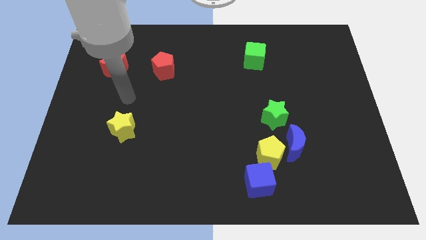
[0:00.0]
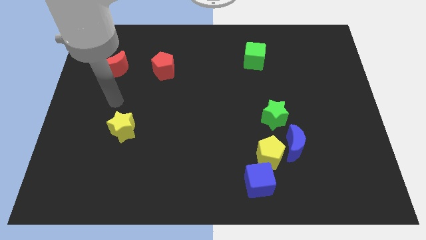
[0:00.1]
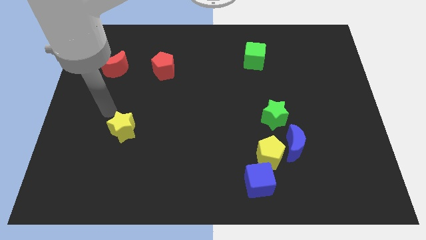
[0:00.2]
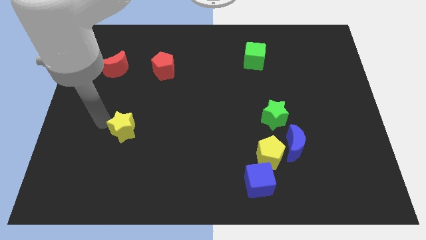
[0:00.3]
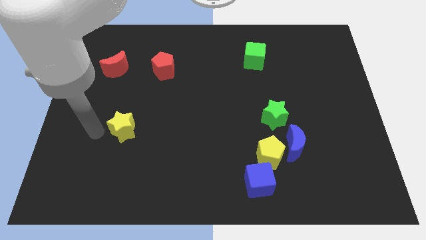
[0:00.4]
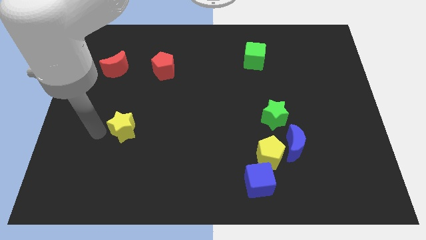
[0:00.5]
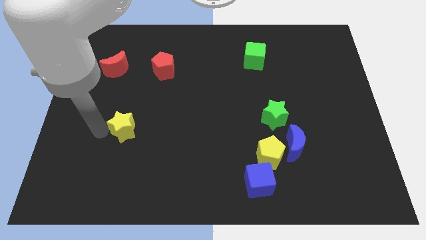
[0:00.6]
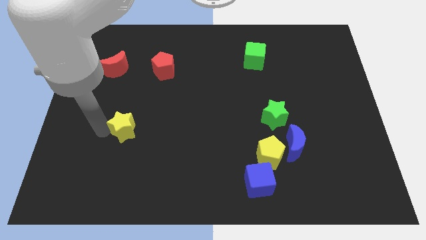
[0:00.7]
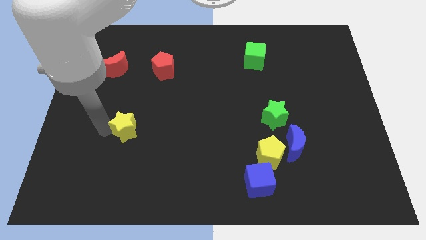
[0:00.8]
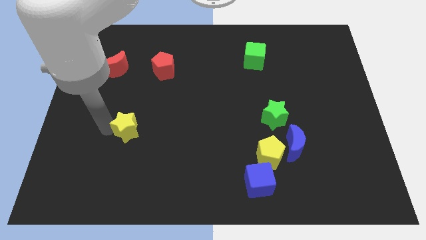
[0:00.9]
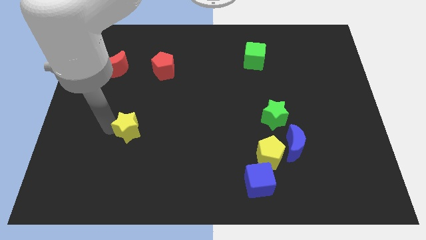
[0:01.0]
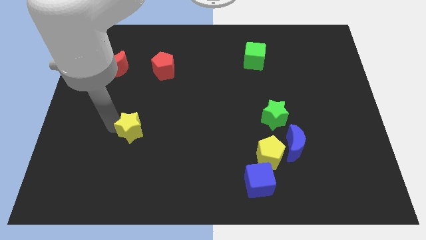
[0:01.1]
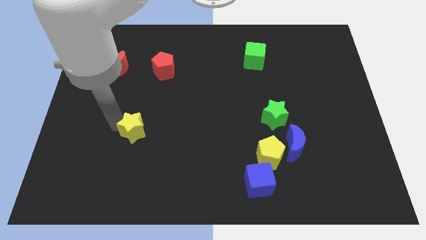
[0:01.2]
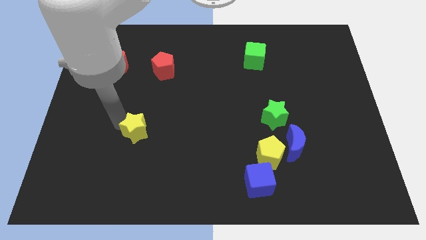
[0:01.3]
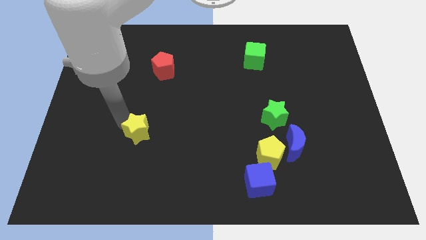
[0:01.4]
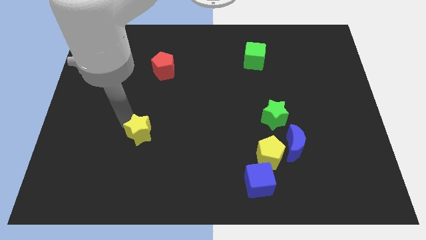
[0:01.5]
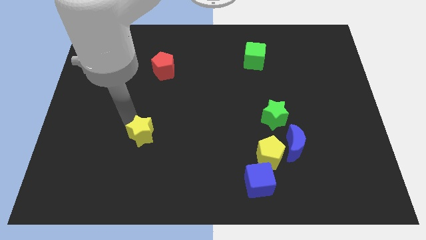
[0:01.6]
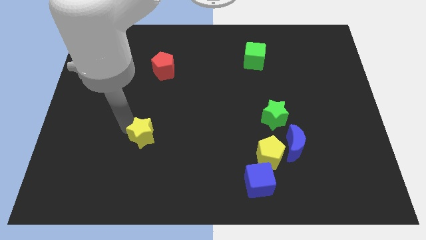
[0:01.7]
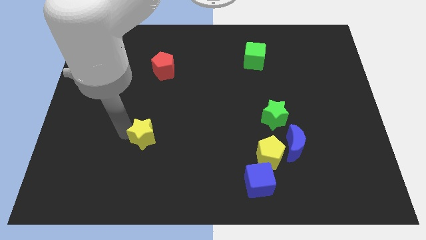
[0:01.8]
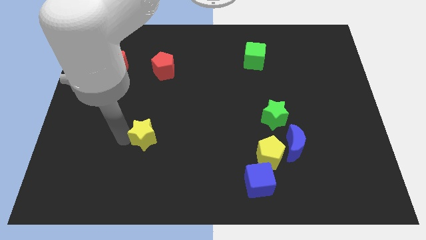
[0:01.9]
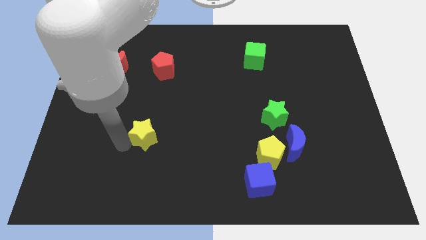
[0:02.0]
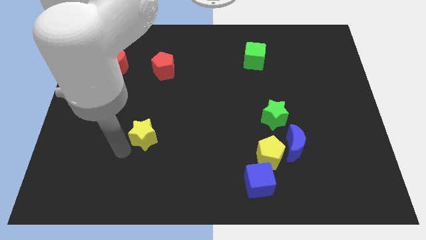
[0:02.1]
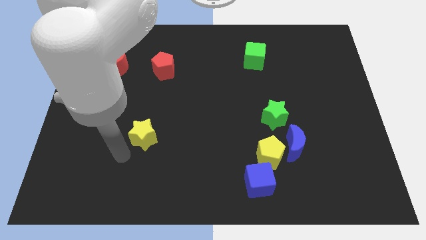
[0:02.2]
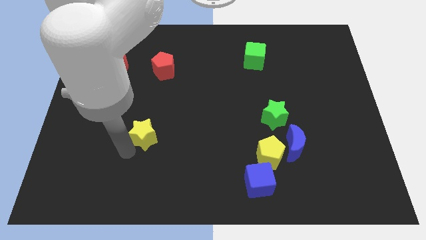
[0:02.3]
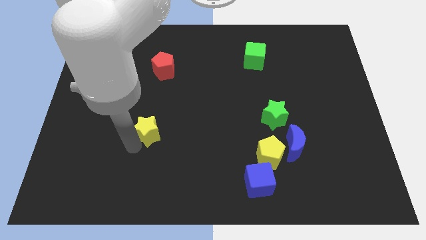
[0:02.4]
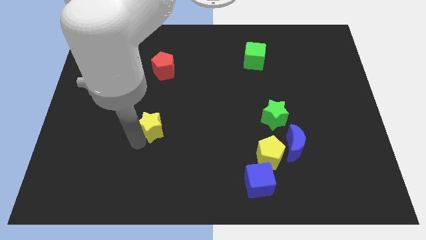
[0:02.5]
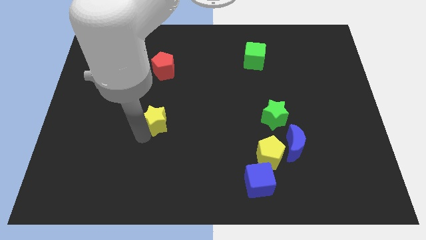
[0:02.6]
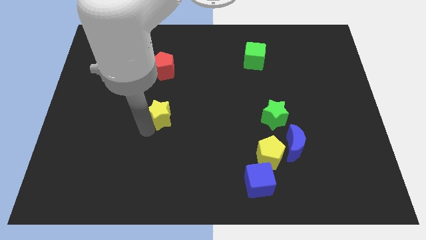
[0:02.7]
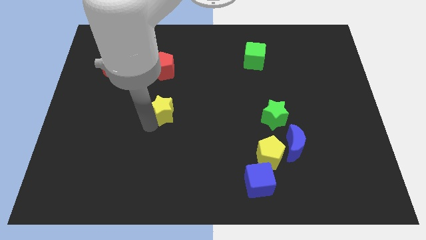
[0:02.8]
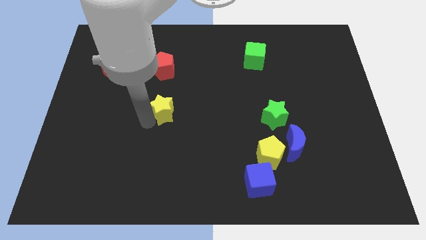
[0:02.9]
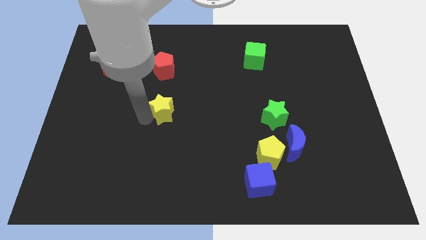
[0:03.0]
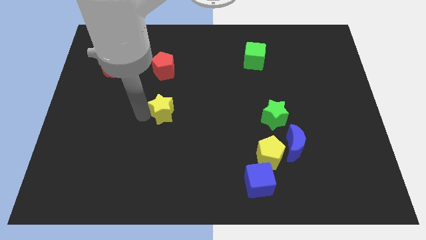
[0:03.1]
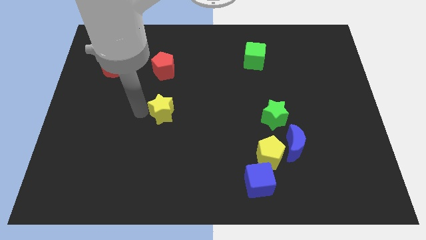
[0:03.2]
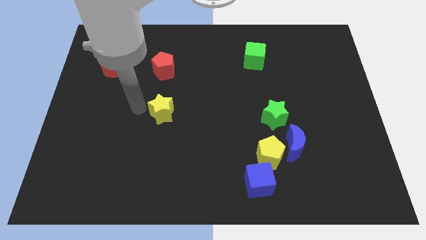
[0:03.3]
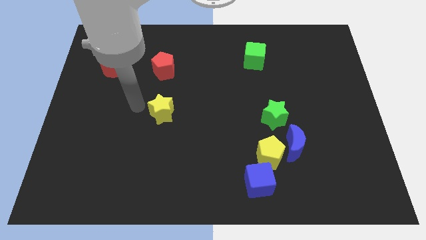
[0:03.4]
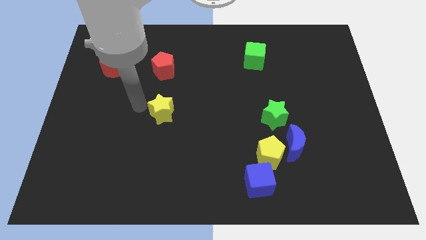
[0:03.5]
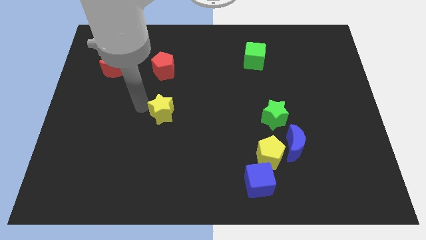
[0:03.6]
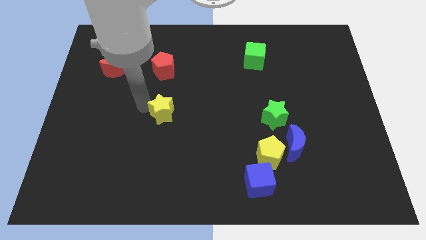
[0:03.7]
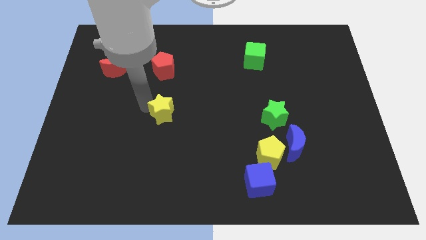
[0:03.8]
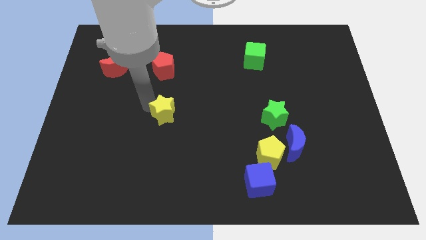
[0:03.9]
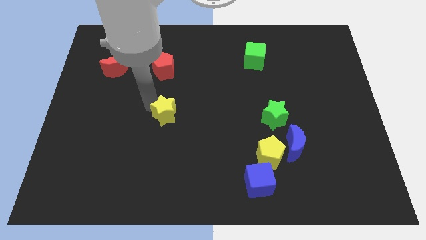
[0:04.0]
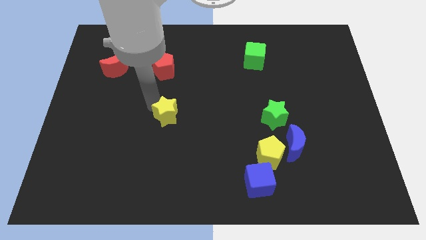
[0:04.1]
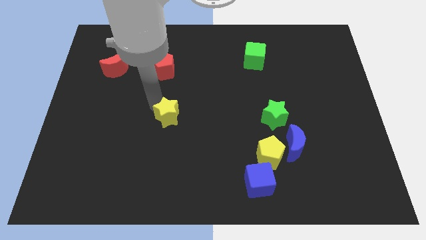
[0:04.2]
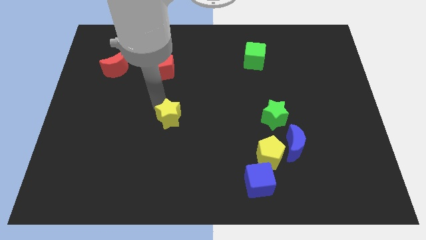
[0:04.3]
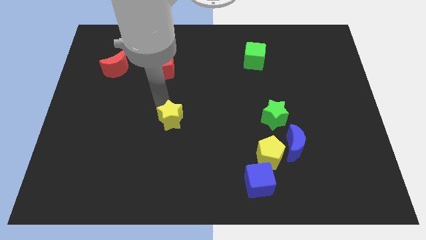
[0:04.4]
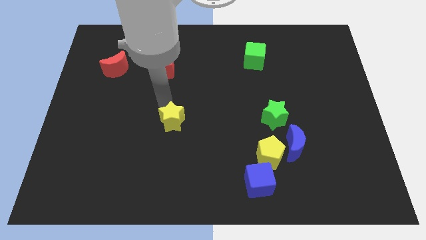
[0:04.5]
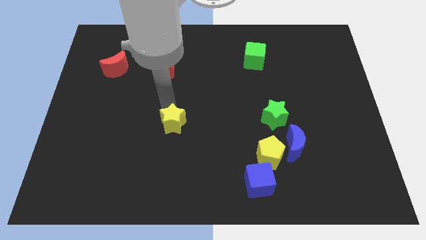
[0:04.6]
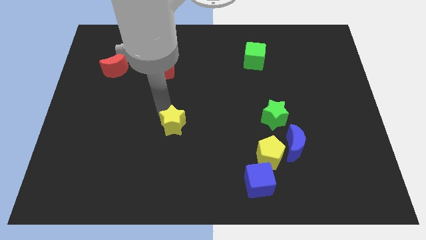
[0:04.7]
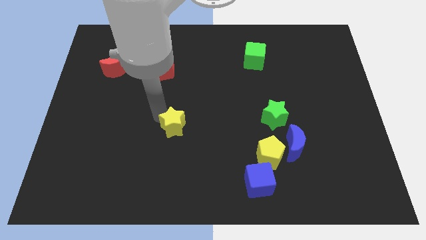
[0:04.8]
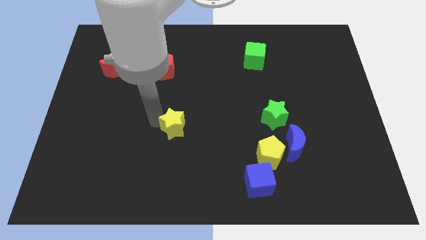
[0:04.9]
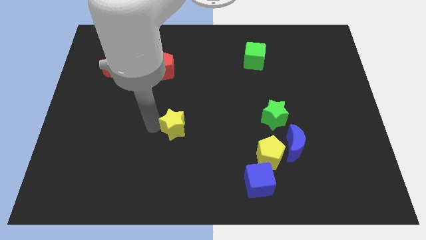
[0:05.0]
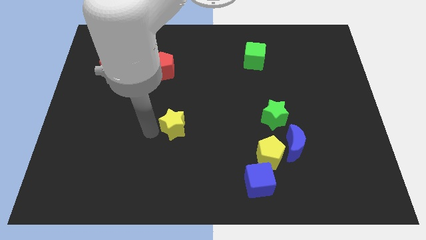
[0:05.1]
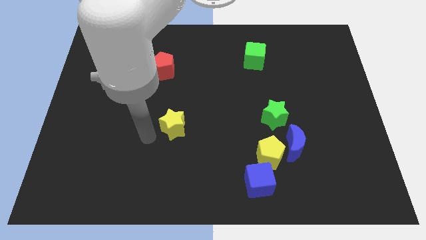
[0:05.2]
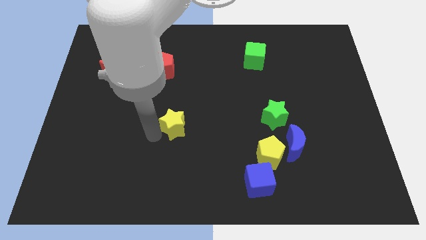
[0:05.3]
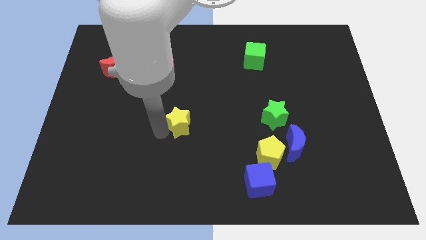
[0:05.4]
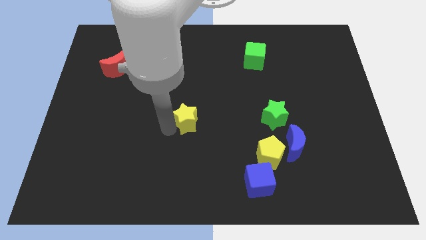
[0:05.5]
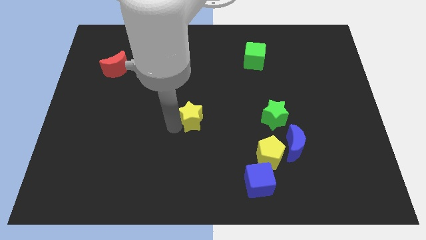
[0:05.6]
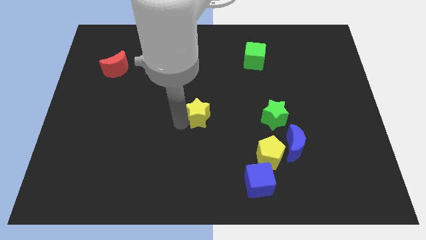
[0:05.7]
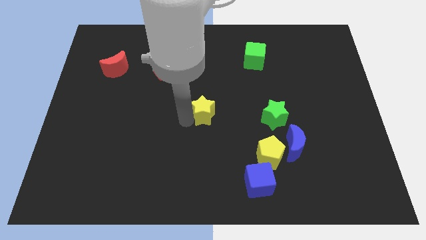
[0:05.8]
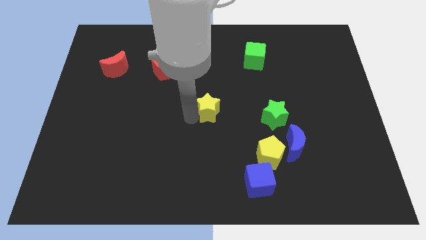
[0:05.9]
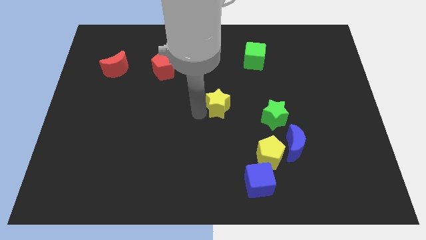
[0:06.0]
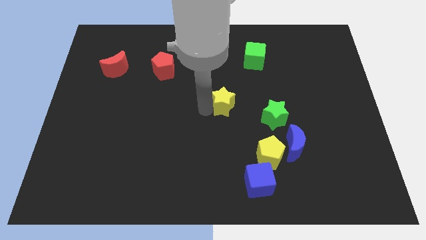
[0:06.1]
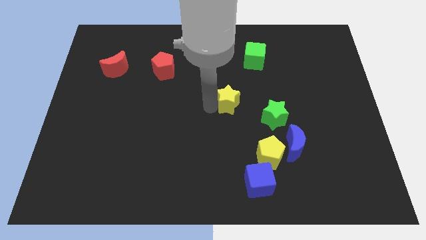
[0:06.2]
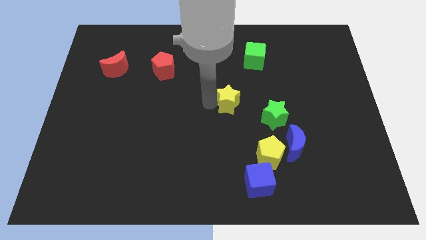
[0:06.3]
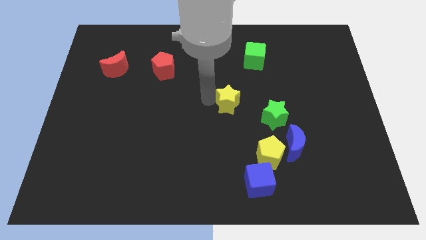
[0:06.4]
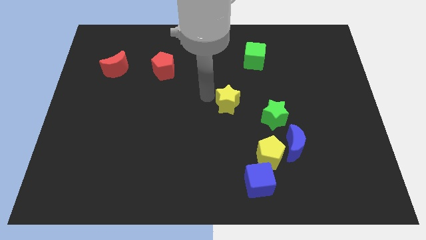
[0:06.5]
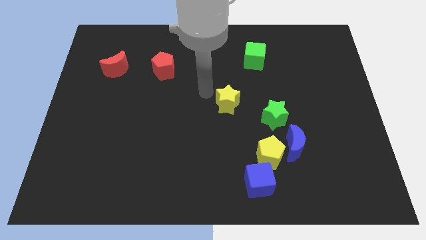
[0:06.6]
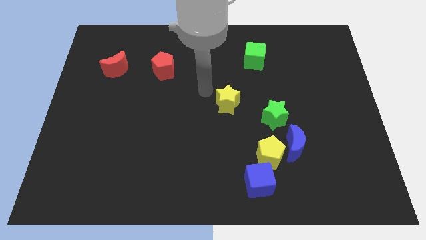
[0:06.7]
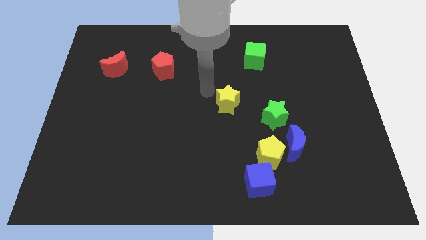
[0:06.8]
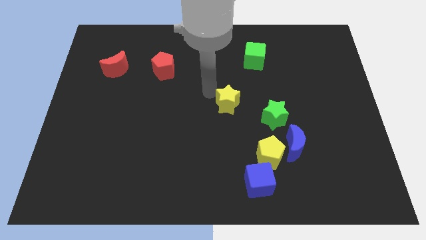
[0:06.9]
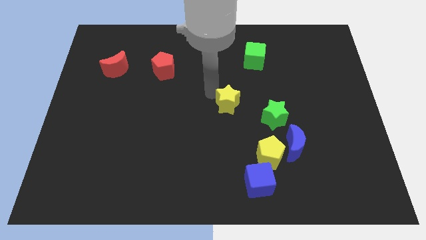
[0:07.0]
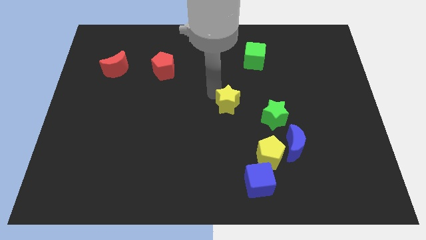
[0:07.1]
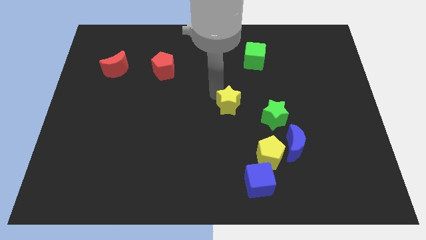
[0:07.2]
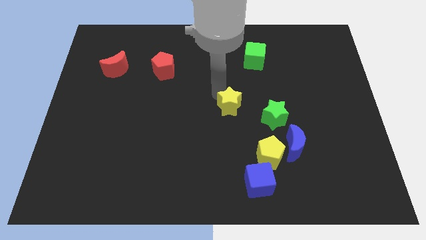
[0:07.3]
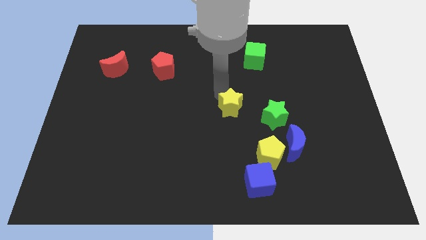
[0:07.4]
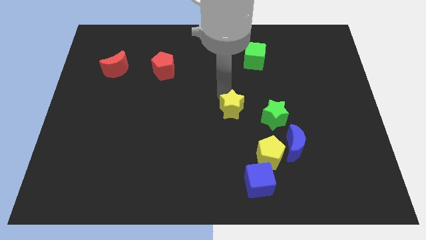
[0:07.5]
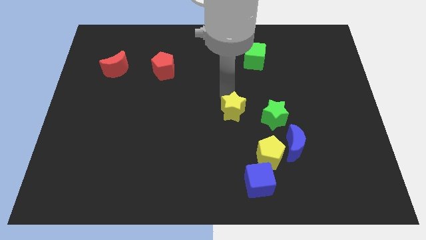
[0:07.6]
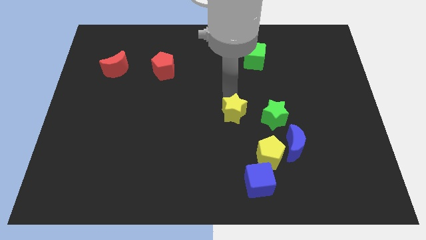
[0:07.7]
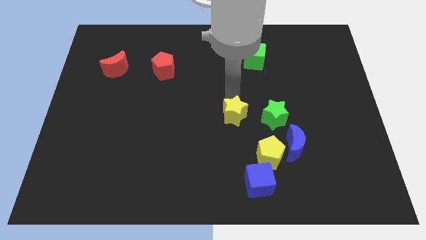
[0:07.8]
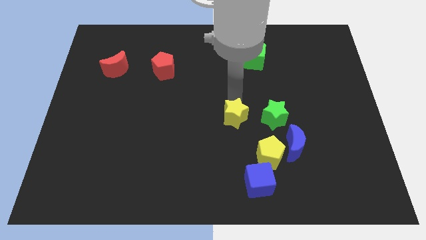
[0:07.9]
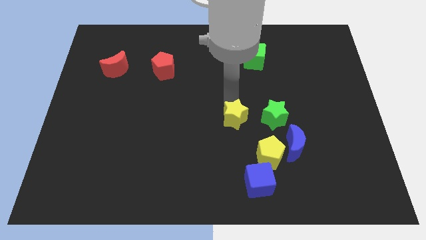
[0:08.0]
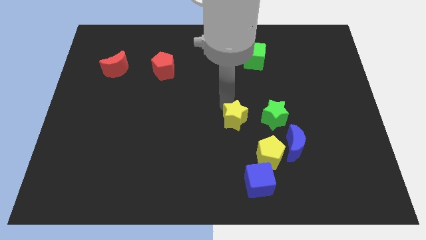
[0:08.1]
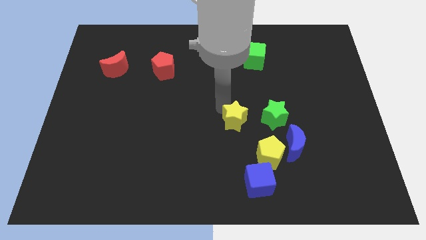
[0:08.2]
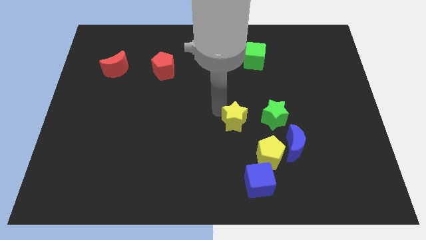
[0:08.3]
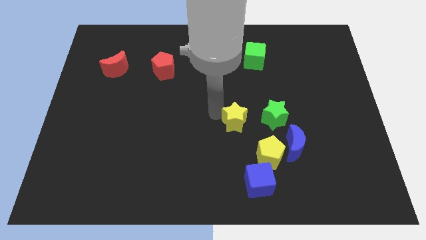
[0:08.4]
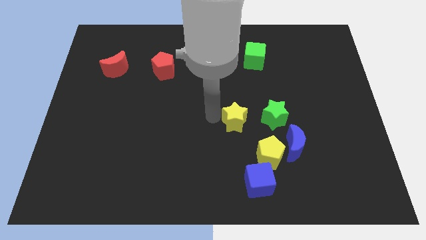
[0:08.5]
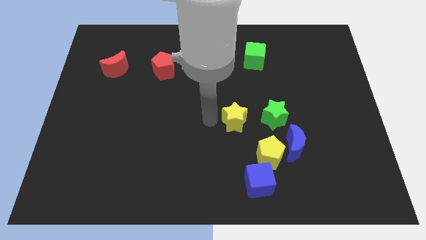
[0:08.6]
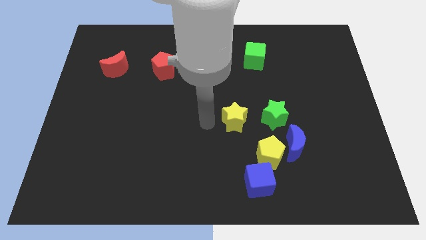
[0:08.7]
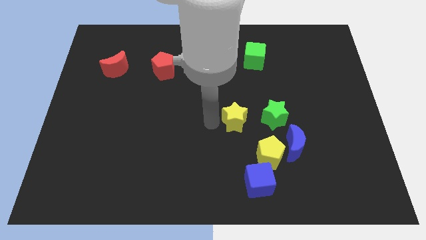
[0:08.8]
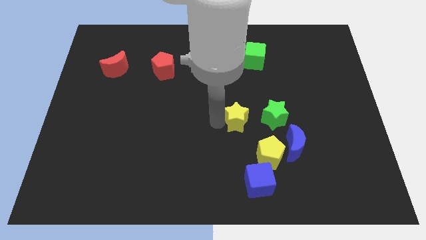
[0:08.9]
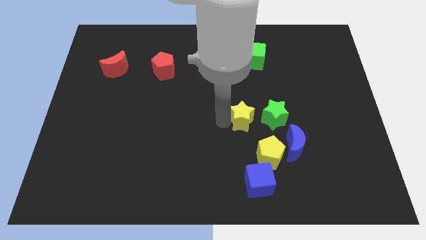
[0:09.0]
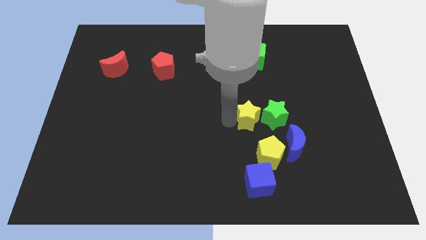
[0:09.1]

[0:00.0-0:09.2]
move the yellow star diagonally up and to the left of the blue moon
